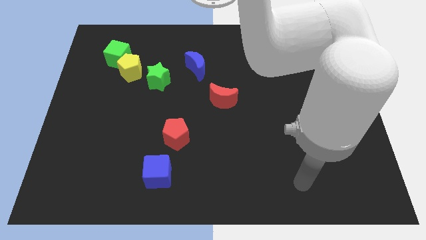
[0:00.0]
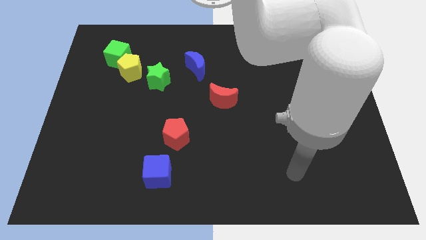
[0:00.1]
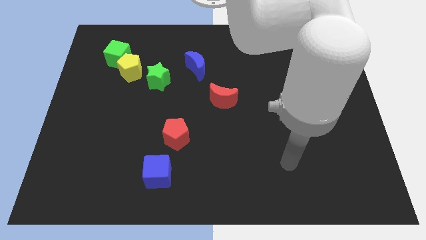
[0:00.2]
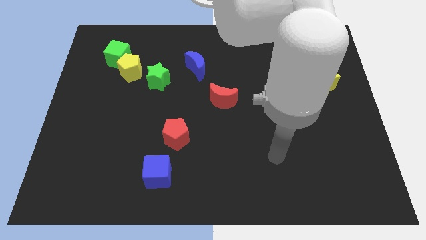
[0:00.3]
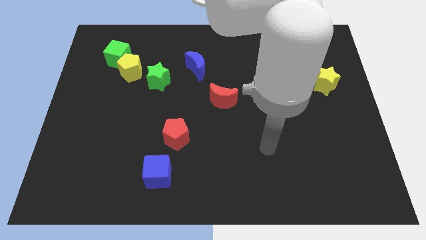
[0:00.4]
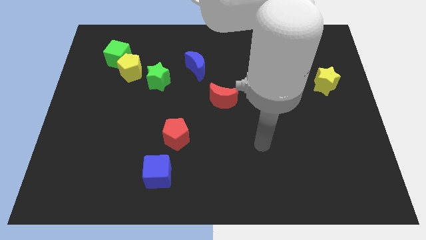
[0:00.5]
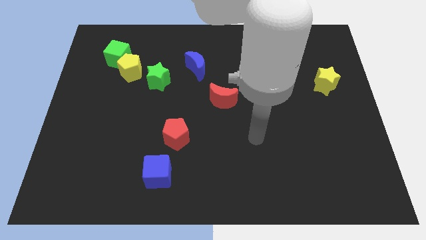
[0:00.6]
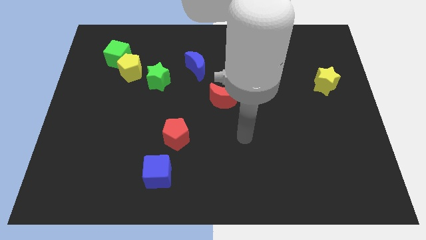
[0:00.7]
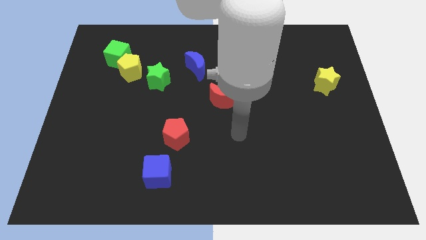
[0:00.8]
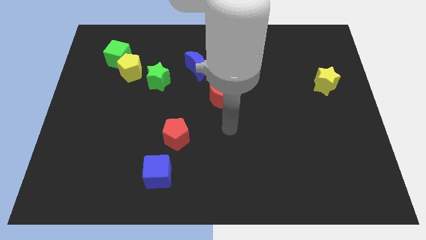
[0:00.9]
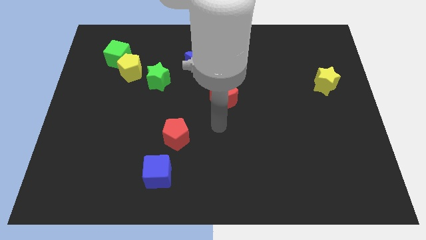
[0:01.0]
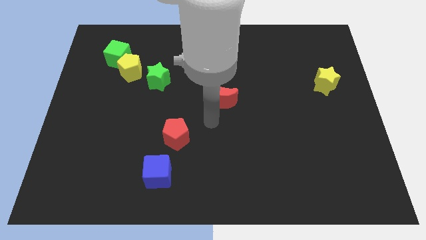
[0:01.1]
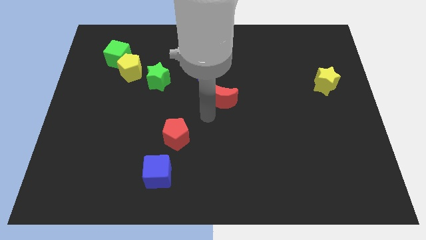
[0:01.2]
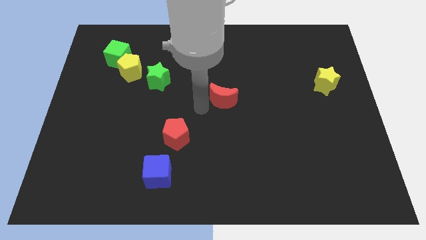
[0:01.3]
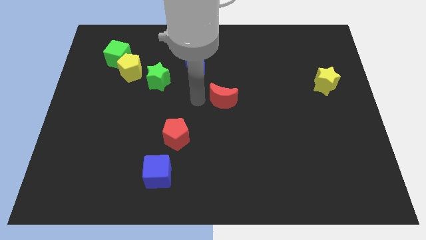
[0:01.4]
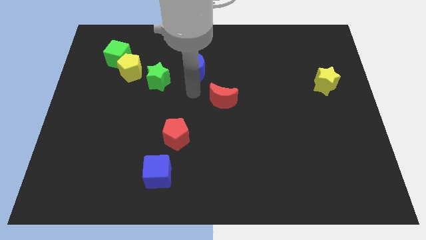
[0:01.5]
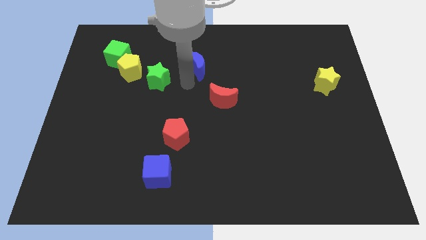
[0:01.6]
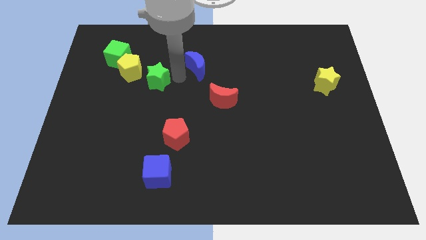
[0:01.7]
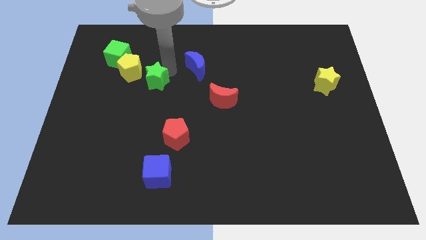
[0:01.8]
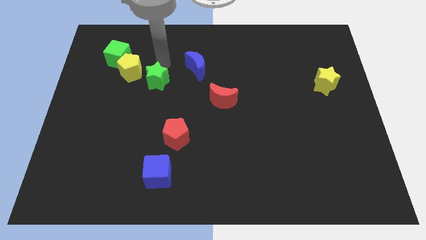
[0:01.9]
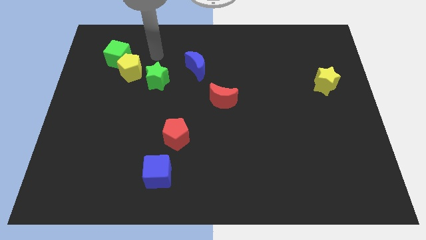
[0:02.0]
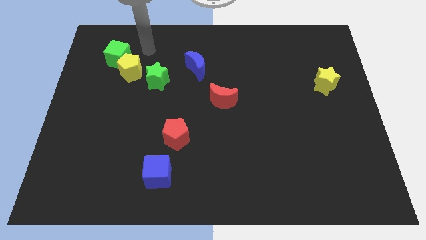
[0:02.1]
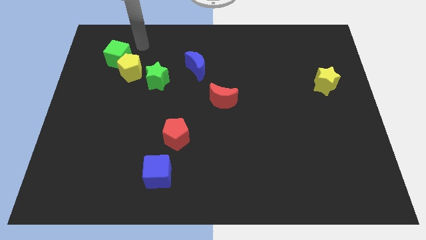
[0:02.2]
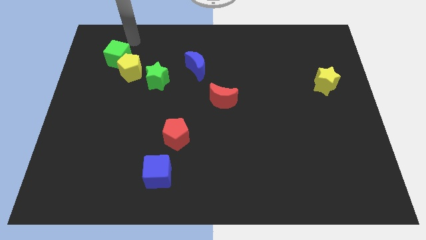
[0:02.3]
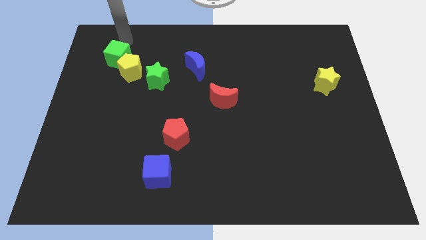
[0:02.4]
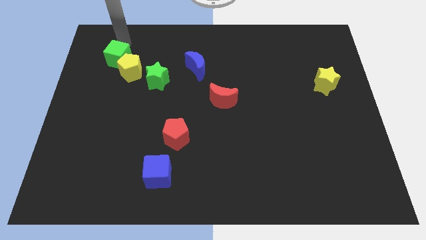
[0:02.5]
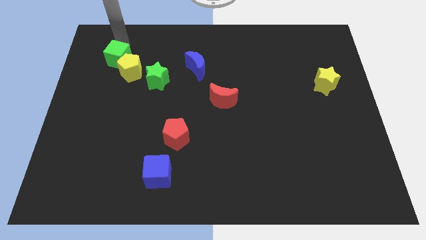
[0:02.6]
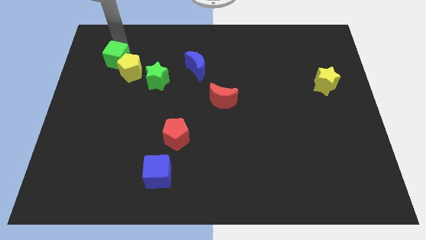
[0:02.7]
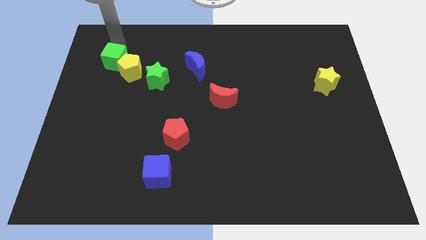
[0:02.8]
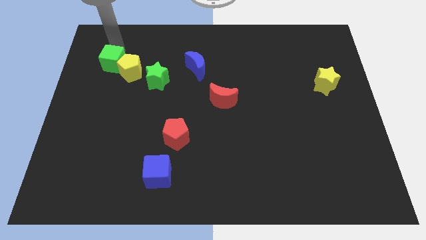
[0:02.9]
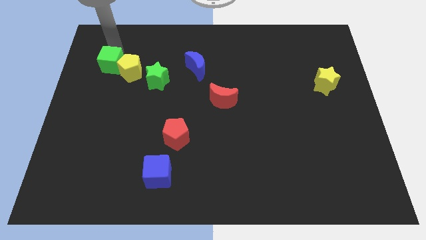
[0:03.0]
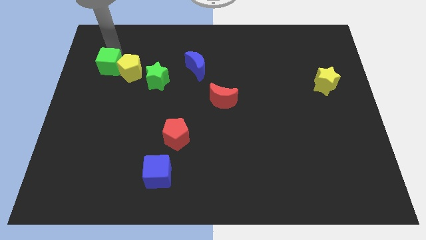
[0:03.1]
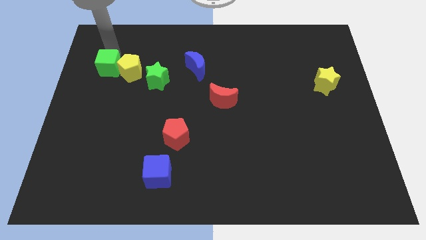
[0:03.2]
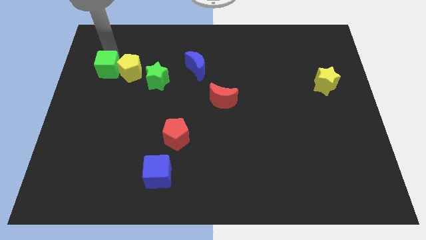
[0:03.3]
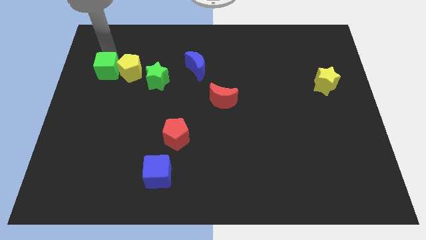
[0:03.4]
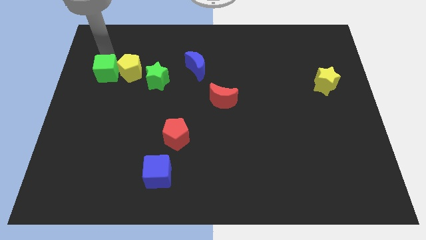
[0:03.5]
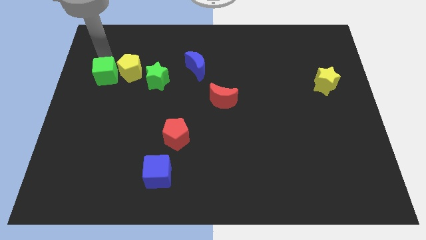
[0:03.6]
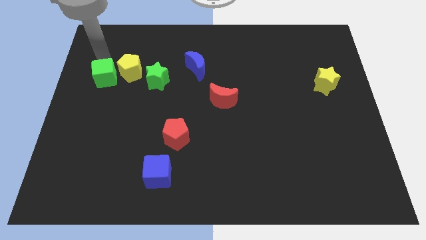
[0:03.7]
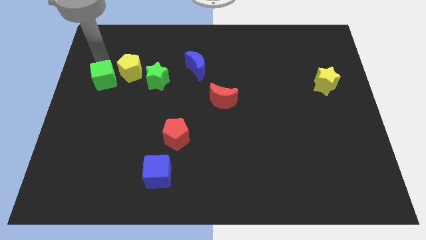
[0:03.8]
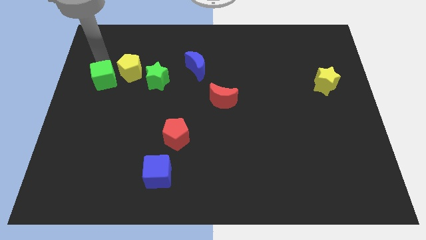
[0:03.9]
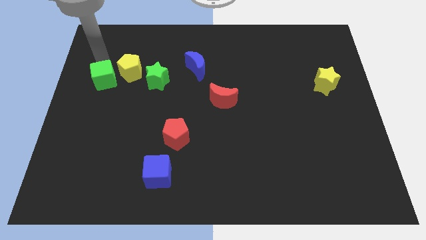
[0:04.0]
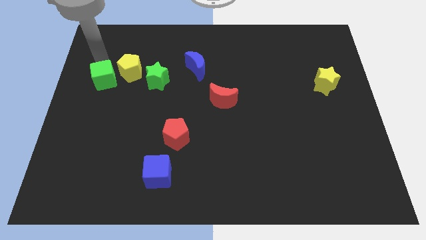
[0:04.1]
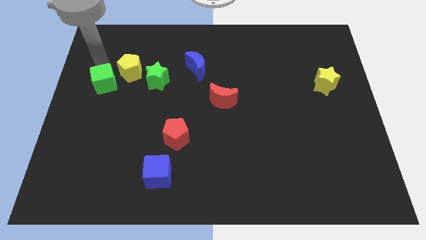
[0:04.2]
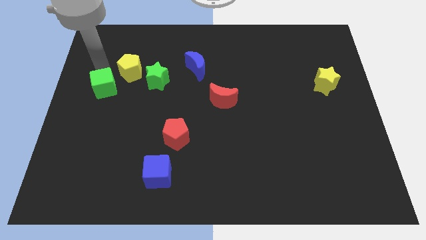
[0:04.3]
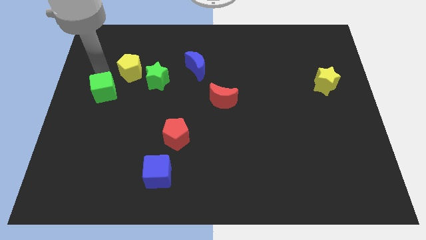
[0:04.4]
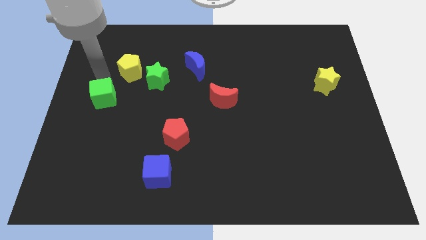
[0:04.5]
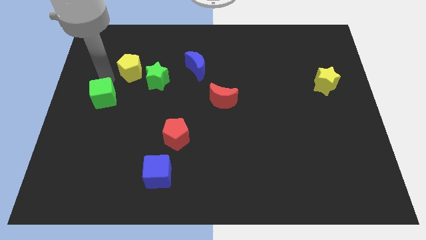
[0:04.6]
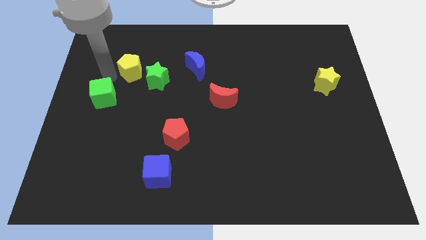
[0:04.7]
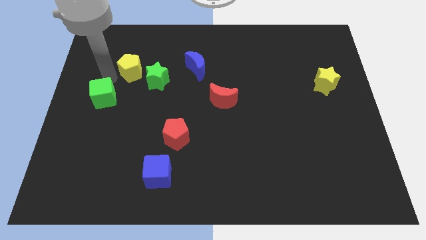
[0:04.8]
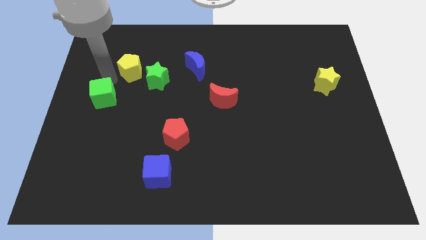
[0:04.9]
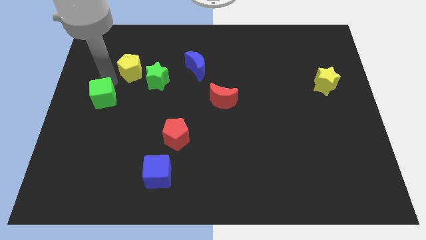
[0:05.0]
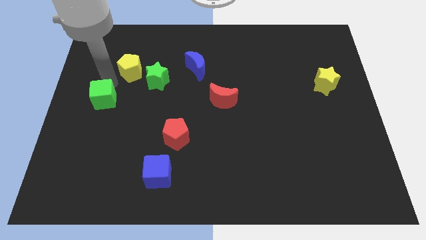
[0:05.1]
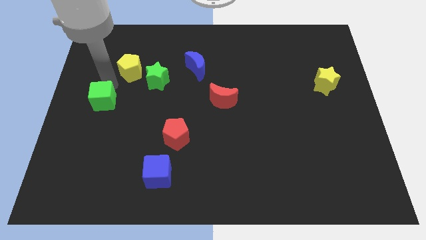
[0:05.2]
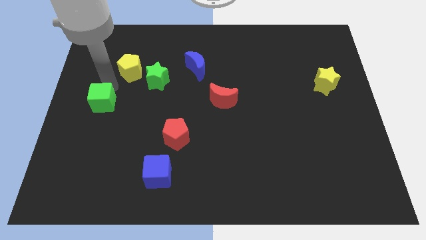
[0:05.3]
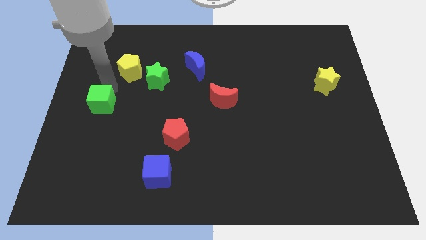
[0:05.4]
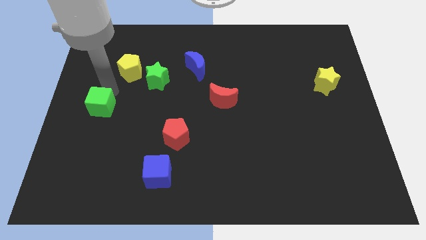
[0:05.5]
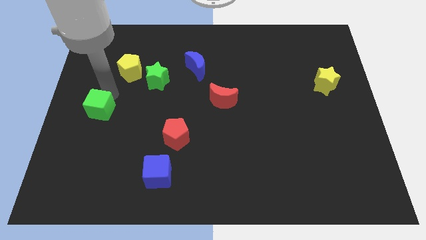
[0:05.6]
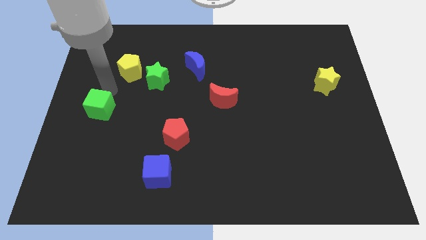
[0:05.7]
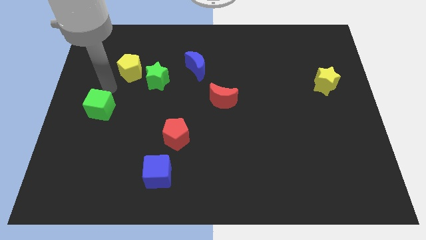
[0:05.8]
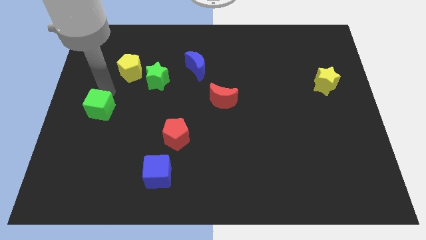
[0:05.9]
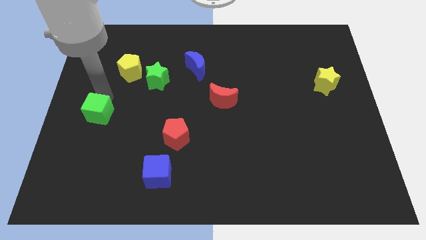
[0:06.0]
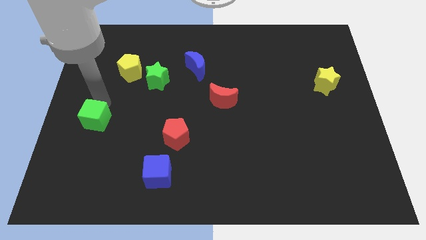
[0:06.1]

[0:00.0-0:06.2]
slide the green cube down

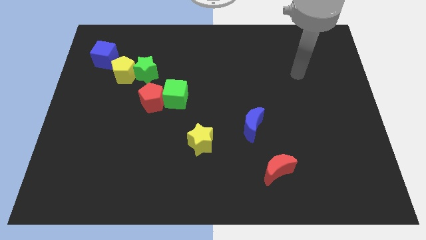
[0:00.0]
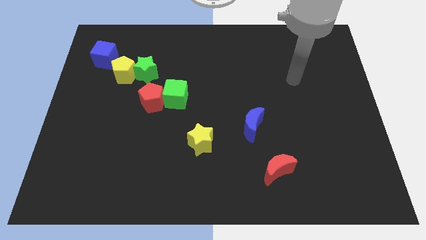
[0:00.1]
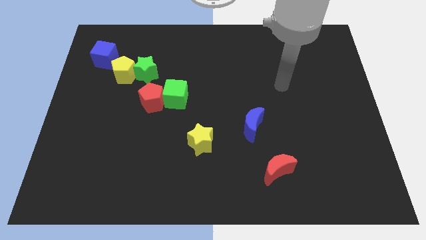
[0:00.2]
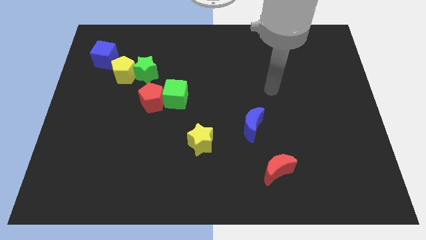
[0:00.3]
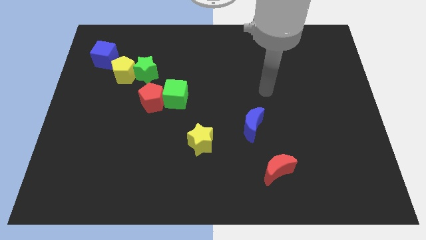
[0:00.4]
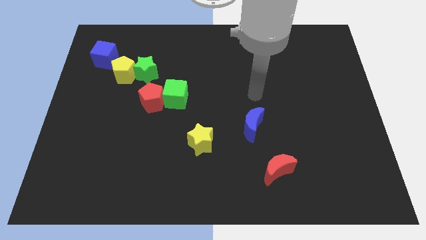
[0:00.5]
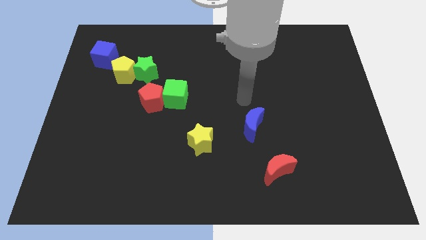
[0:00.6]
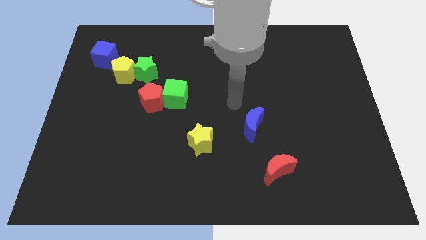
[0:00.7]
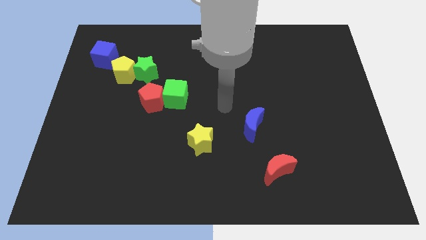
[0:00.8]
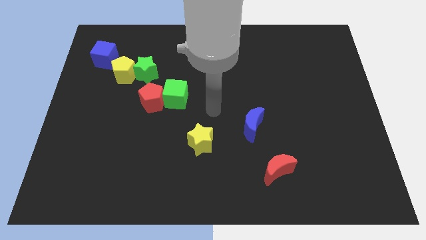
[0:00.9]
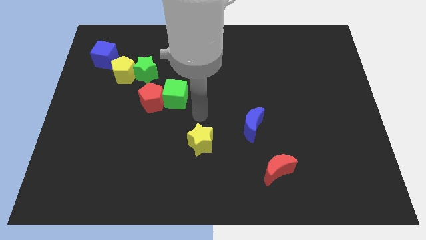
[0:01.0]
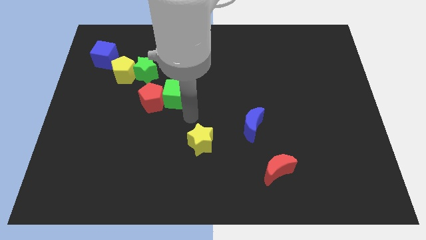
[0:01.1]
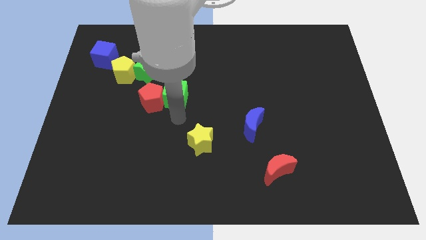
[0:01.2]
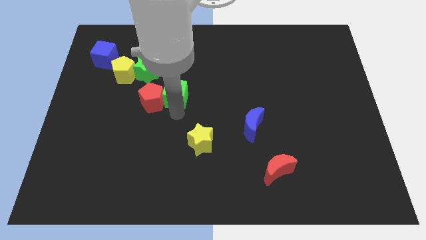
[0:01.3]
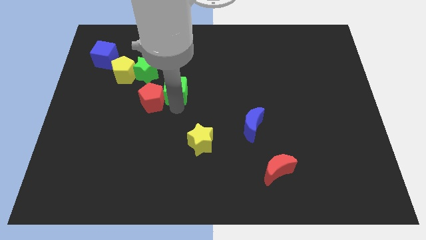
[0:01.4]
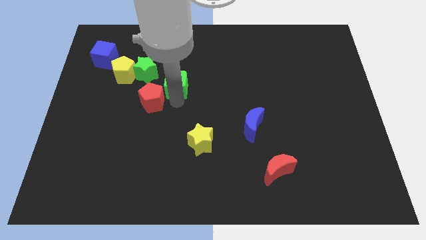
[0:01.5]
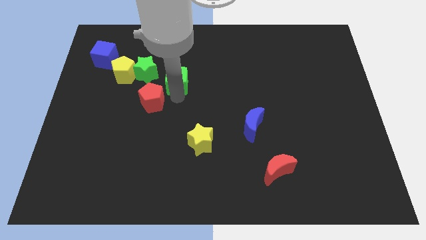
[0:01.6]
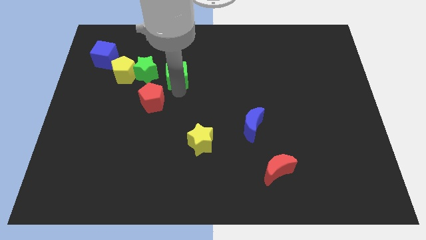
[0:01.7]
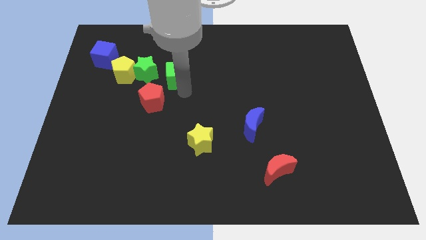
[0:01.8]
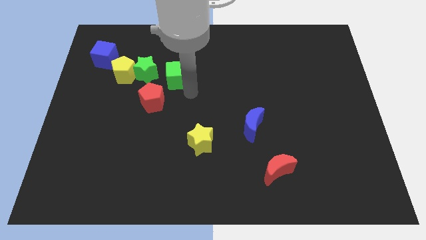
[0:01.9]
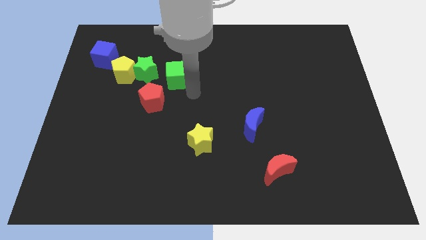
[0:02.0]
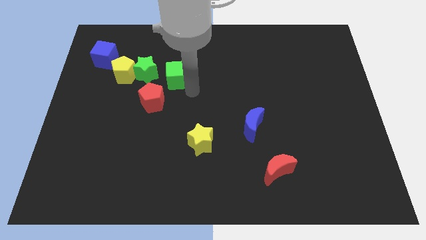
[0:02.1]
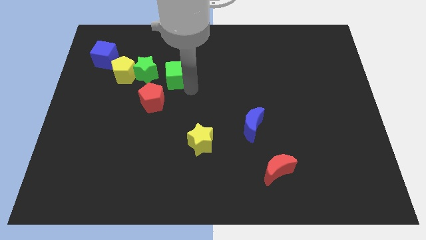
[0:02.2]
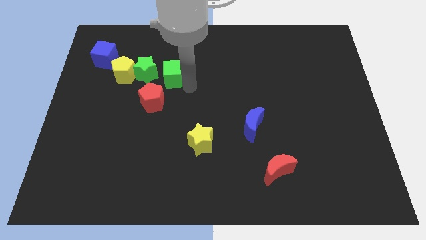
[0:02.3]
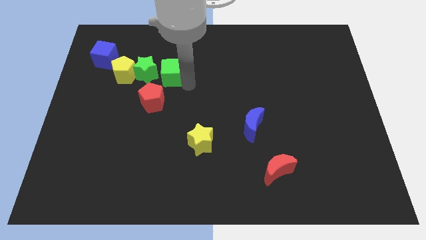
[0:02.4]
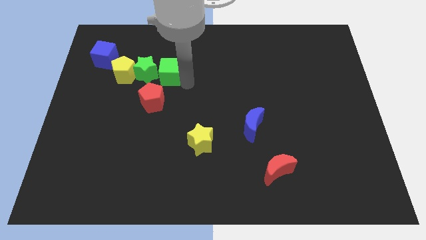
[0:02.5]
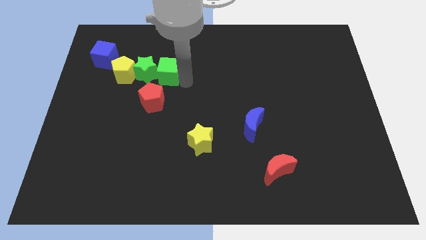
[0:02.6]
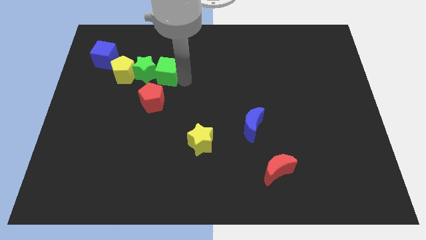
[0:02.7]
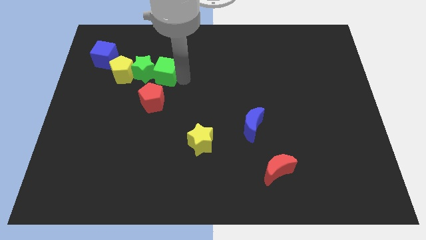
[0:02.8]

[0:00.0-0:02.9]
push the green cube a bit up and left diagonally
